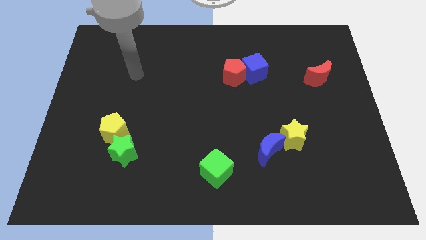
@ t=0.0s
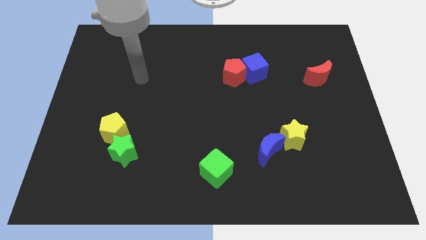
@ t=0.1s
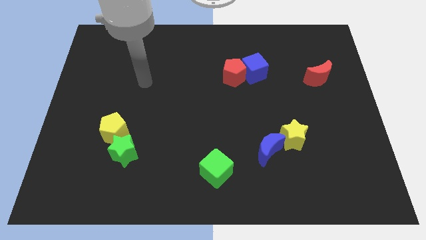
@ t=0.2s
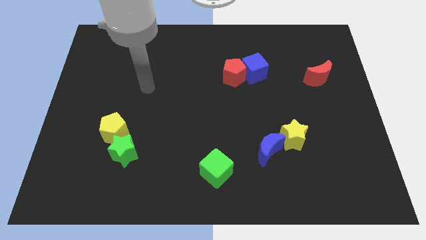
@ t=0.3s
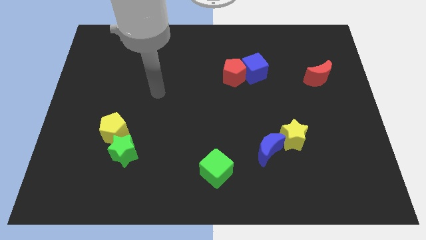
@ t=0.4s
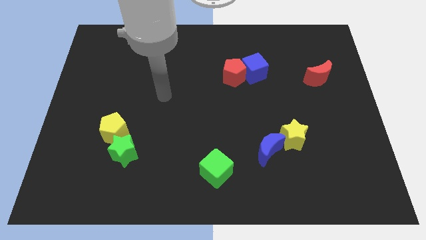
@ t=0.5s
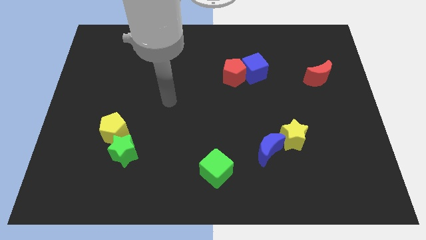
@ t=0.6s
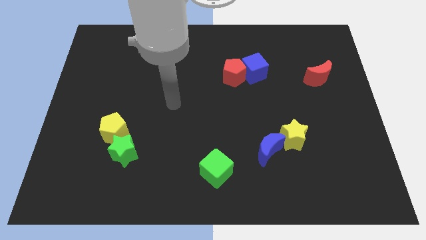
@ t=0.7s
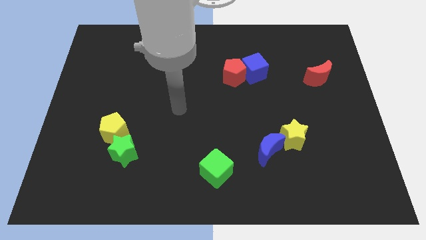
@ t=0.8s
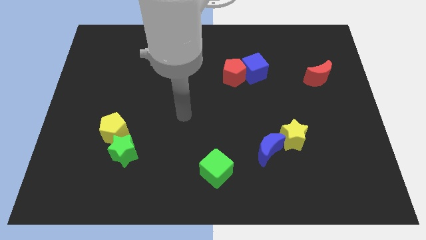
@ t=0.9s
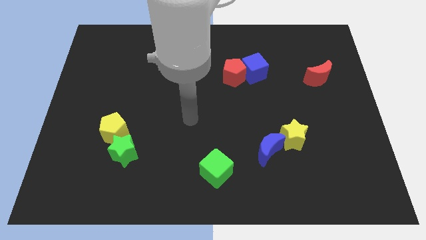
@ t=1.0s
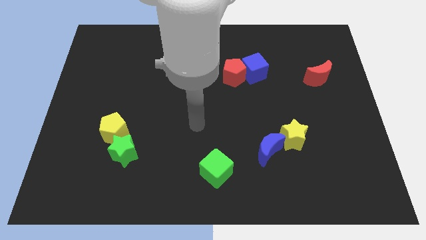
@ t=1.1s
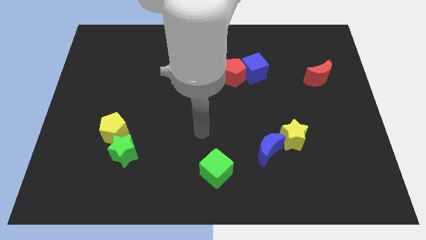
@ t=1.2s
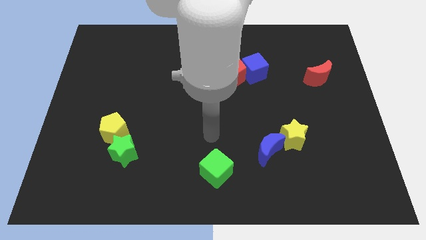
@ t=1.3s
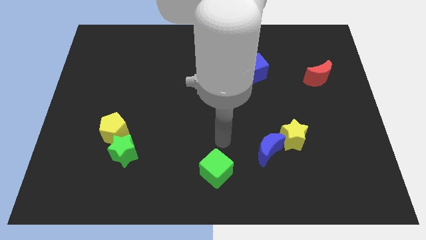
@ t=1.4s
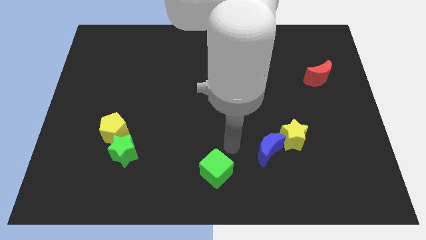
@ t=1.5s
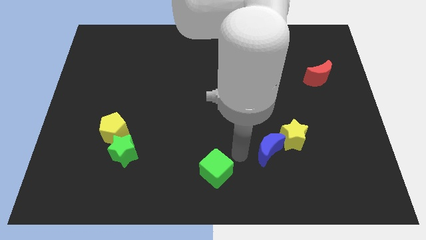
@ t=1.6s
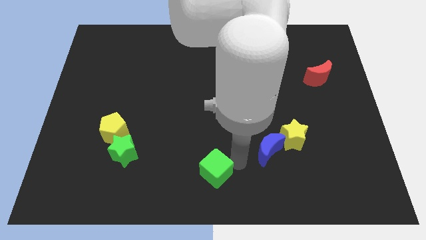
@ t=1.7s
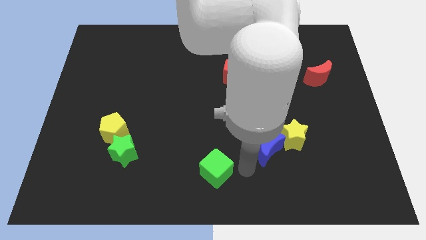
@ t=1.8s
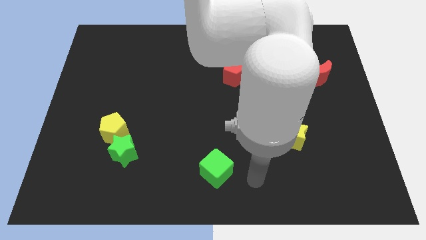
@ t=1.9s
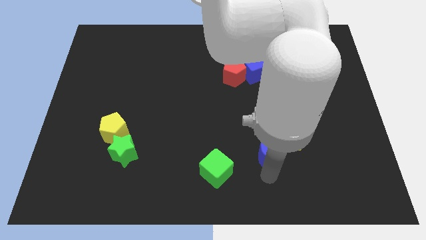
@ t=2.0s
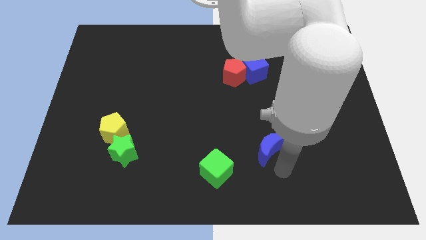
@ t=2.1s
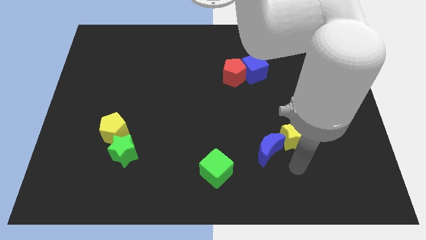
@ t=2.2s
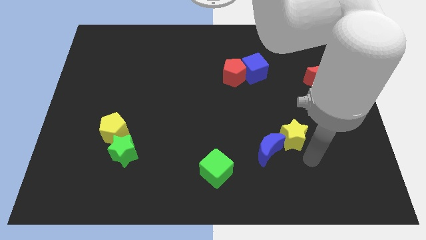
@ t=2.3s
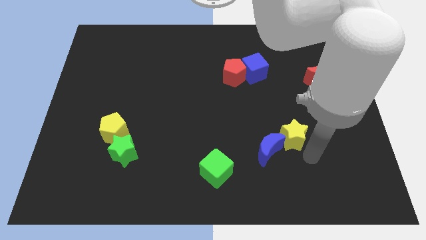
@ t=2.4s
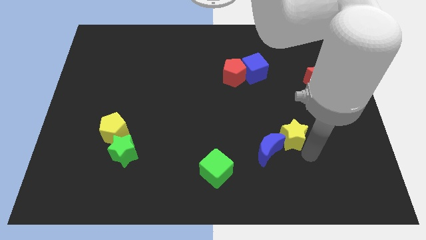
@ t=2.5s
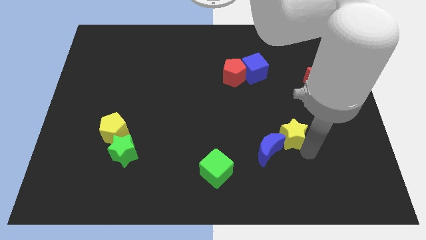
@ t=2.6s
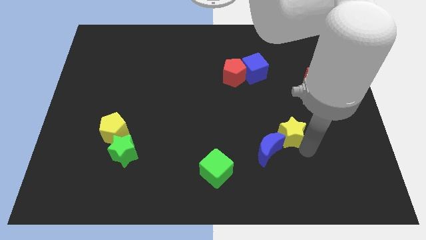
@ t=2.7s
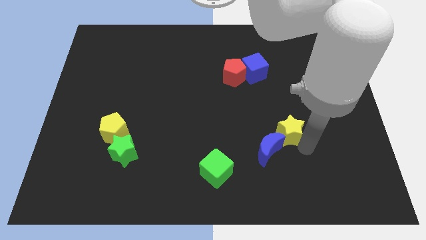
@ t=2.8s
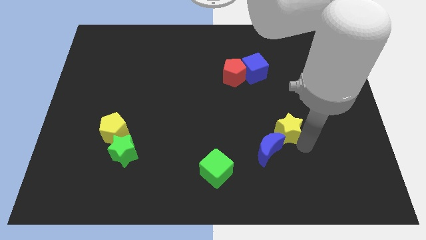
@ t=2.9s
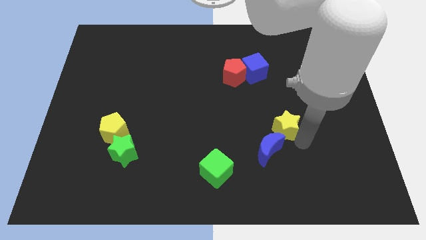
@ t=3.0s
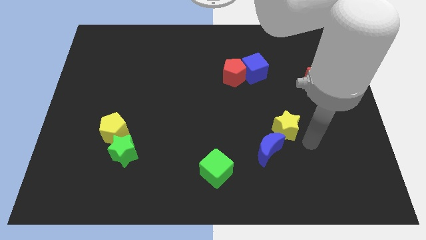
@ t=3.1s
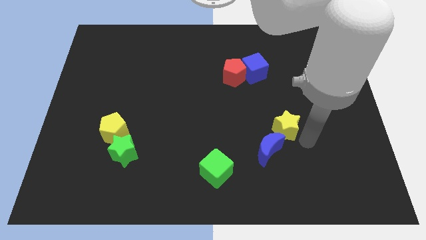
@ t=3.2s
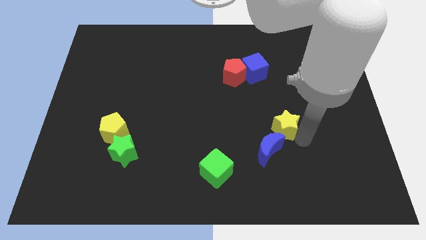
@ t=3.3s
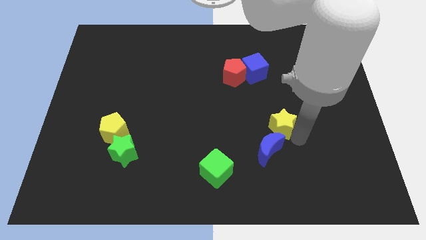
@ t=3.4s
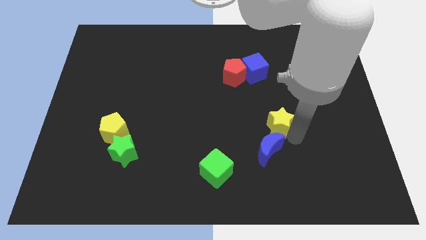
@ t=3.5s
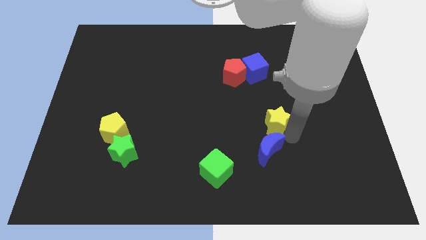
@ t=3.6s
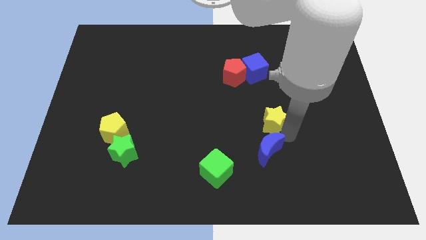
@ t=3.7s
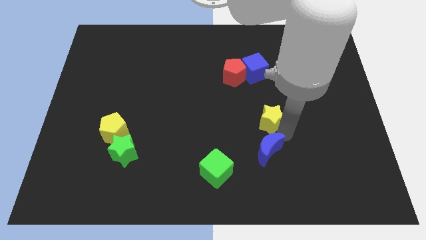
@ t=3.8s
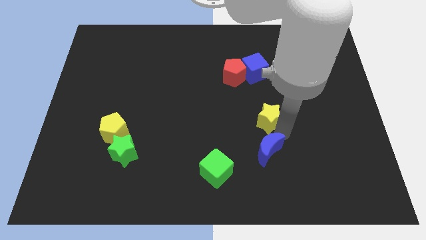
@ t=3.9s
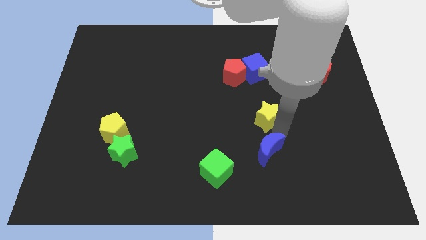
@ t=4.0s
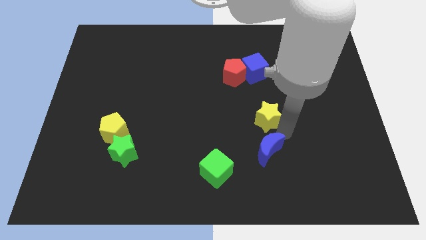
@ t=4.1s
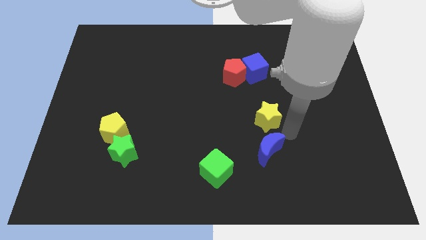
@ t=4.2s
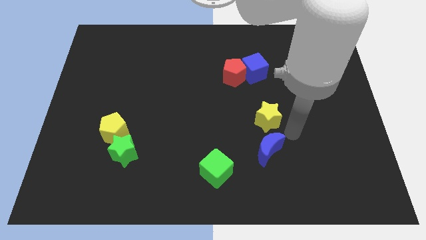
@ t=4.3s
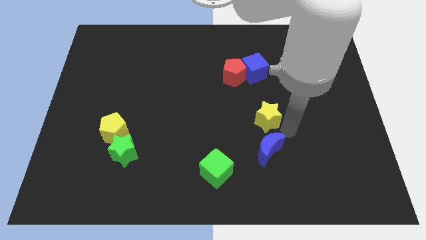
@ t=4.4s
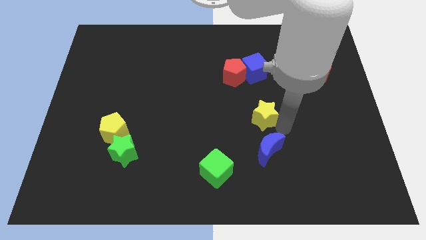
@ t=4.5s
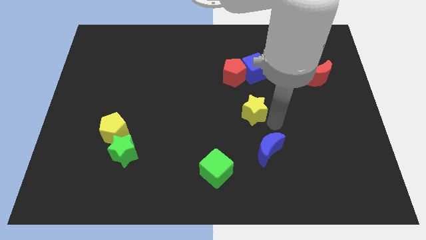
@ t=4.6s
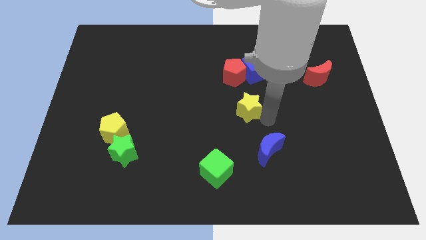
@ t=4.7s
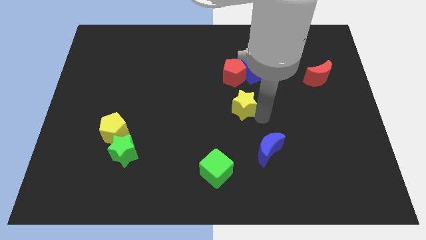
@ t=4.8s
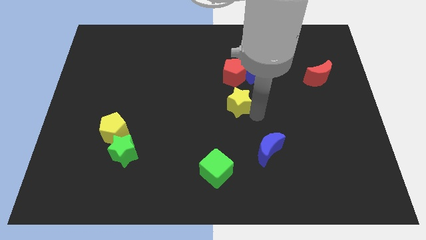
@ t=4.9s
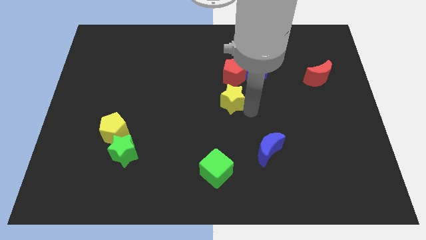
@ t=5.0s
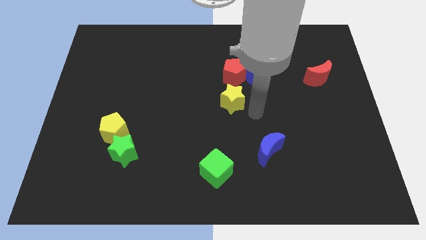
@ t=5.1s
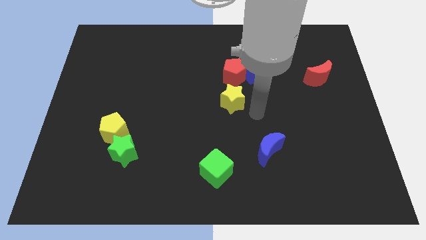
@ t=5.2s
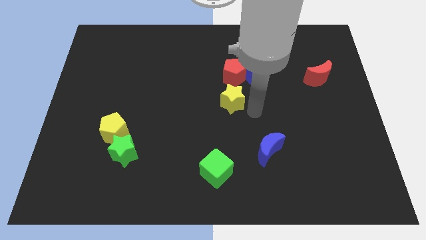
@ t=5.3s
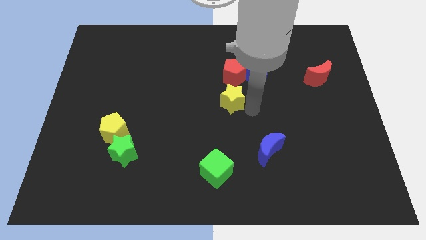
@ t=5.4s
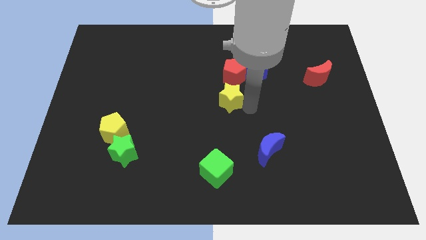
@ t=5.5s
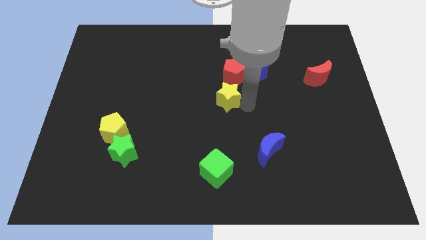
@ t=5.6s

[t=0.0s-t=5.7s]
put the yellow star to the bottom left side of the red pentagon
